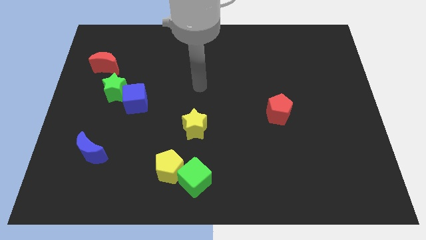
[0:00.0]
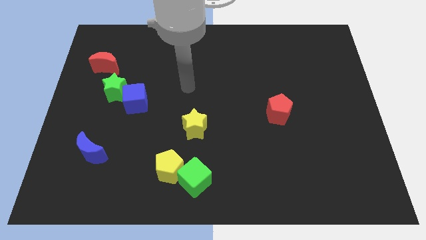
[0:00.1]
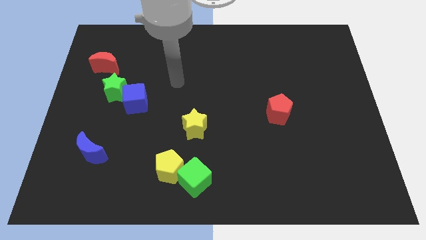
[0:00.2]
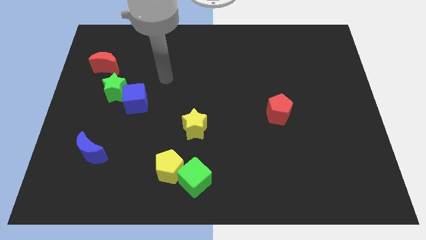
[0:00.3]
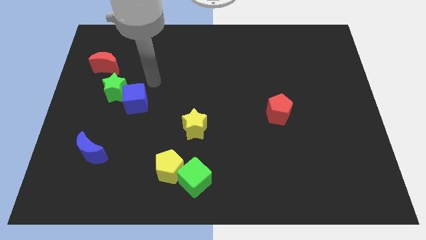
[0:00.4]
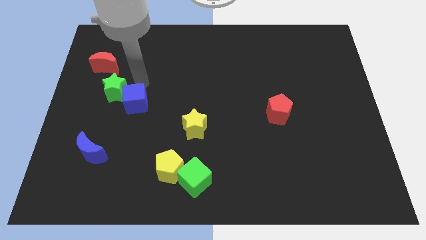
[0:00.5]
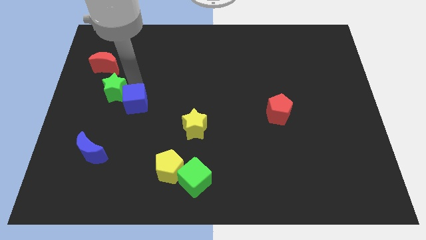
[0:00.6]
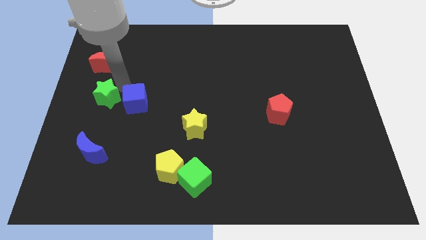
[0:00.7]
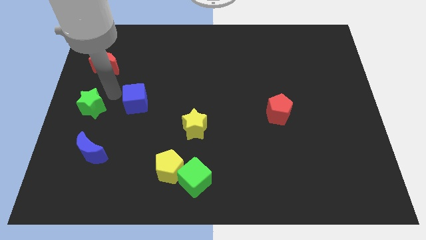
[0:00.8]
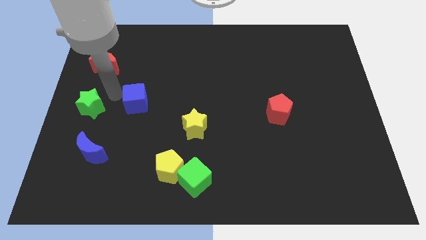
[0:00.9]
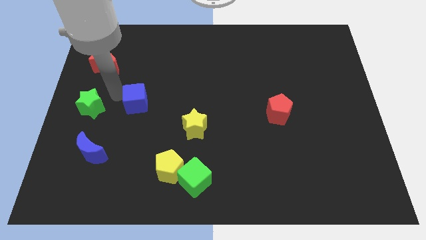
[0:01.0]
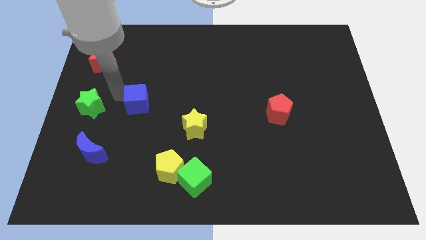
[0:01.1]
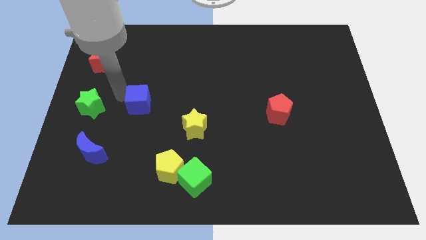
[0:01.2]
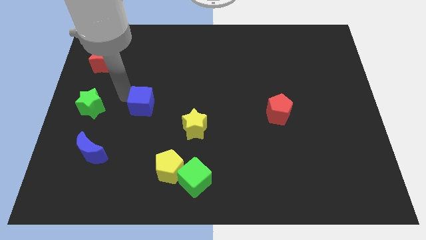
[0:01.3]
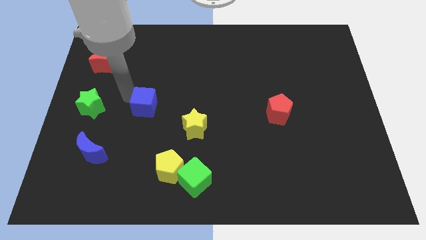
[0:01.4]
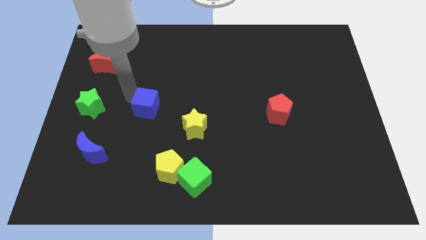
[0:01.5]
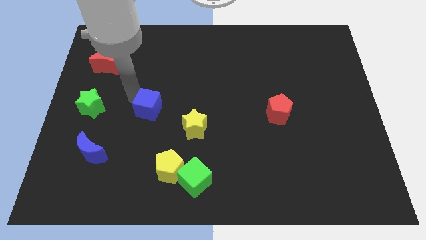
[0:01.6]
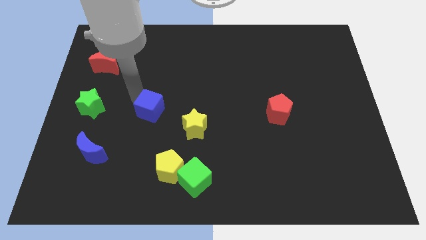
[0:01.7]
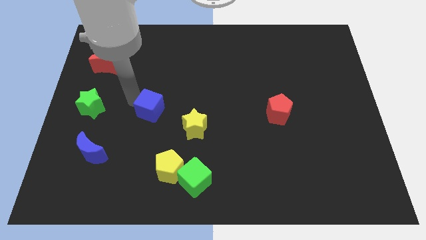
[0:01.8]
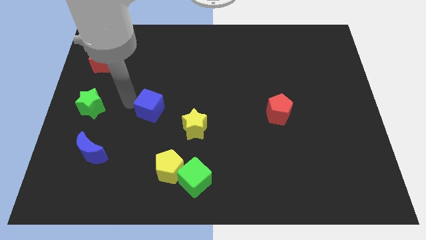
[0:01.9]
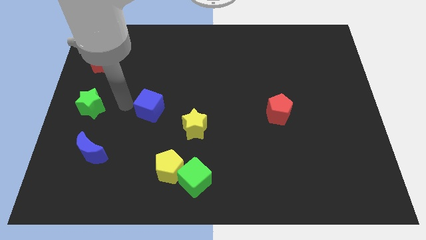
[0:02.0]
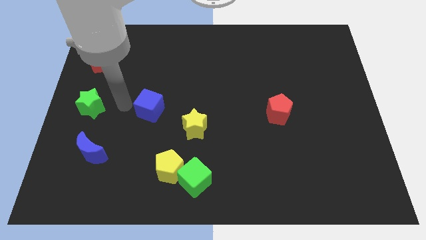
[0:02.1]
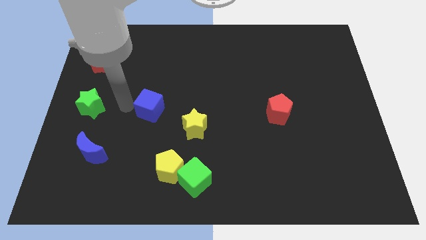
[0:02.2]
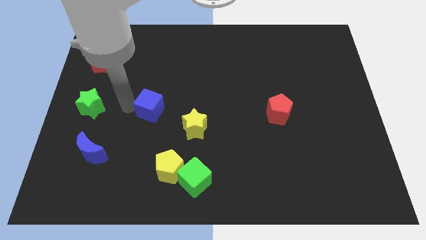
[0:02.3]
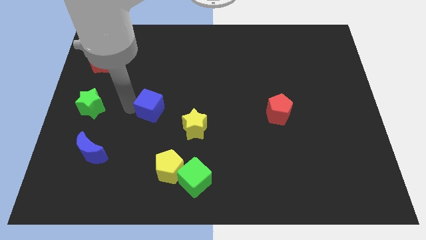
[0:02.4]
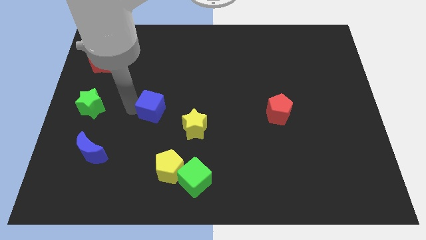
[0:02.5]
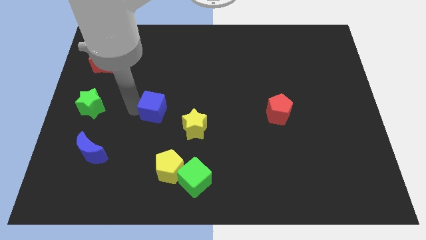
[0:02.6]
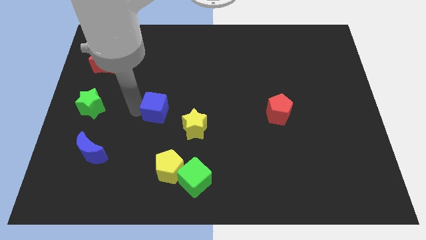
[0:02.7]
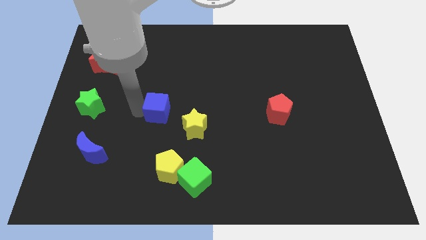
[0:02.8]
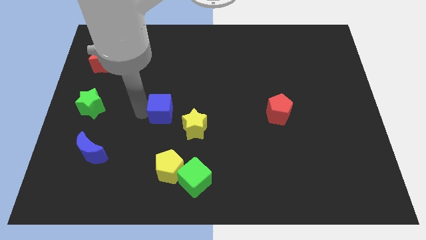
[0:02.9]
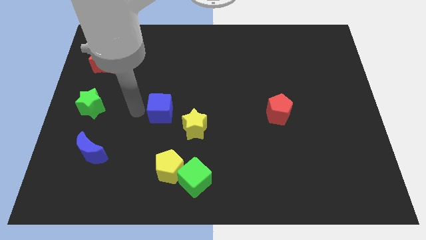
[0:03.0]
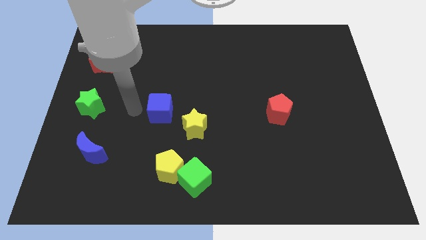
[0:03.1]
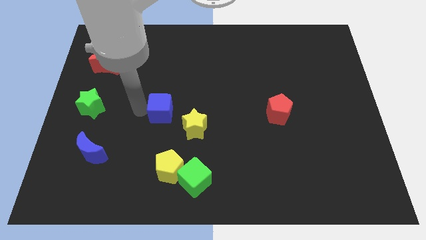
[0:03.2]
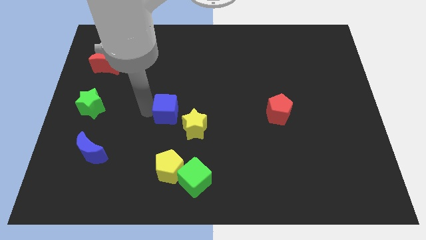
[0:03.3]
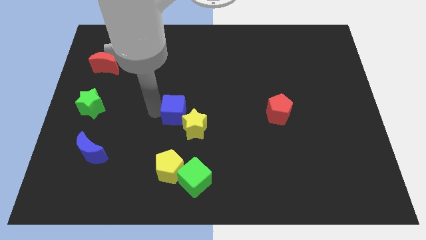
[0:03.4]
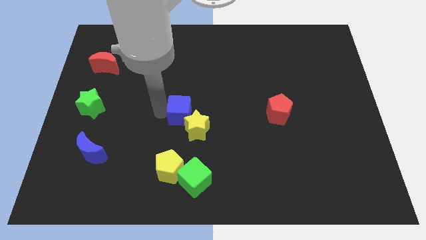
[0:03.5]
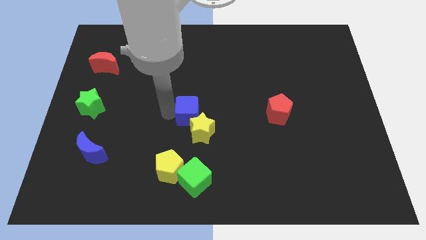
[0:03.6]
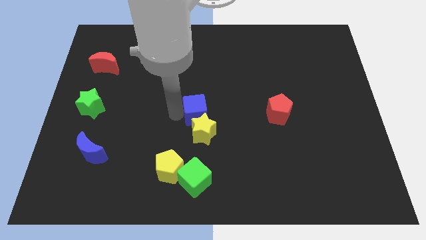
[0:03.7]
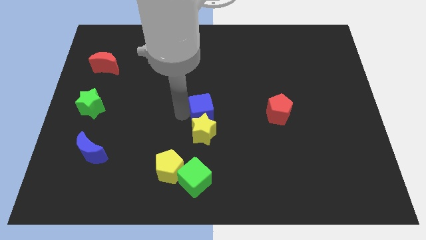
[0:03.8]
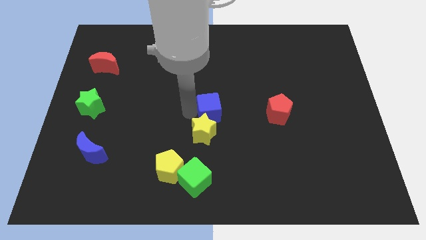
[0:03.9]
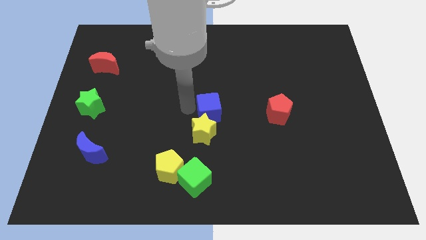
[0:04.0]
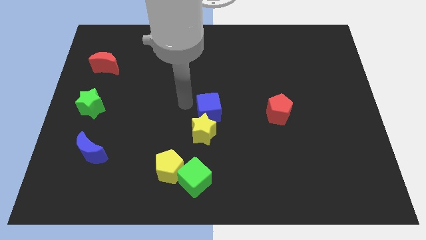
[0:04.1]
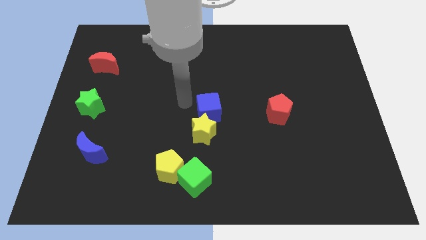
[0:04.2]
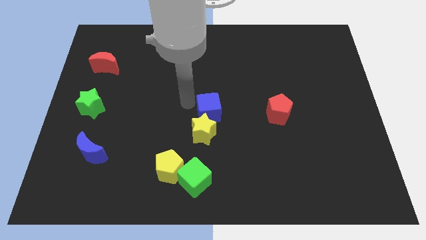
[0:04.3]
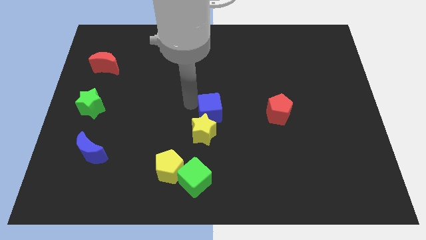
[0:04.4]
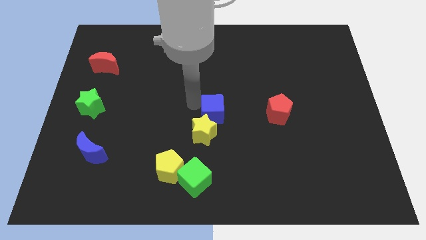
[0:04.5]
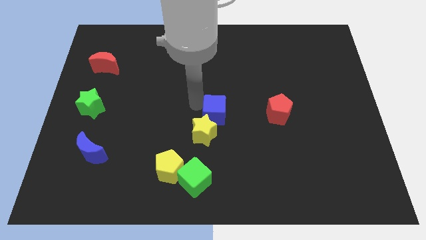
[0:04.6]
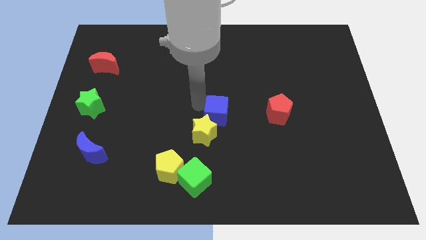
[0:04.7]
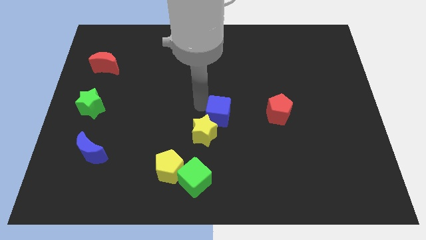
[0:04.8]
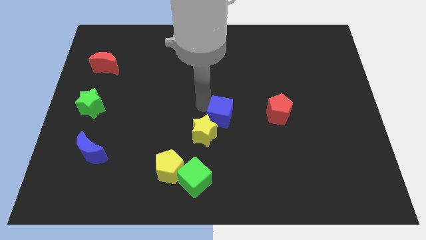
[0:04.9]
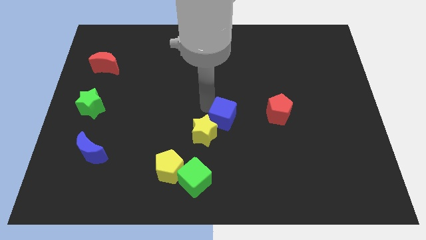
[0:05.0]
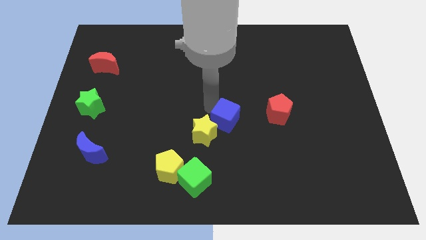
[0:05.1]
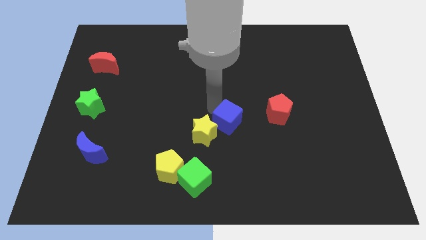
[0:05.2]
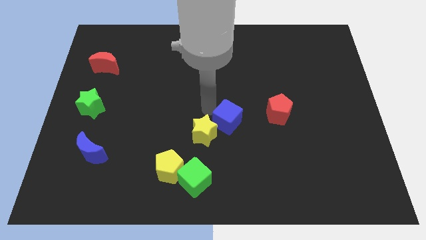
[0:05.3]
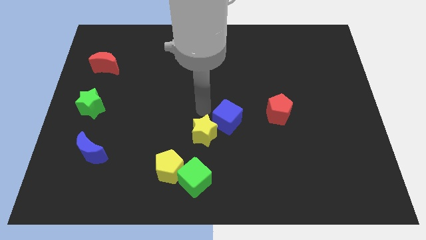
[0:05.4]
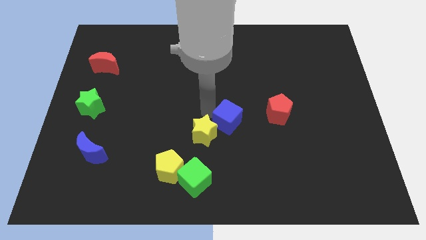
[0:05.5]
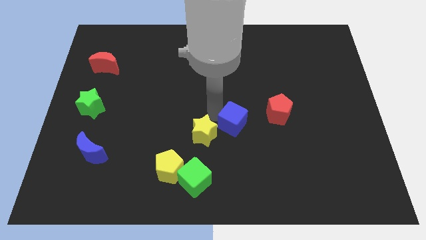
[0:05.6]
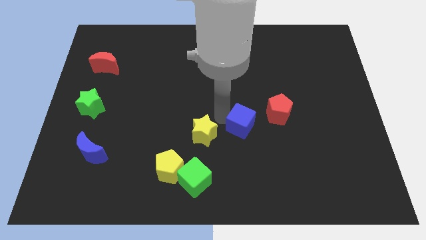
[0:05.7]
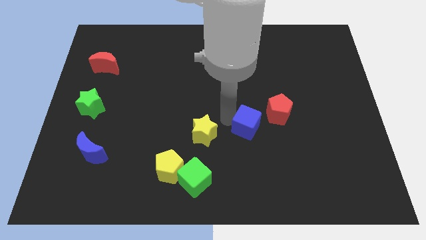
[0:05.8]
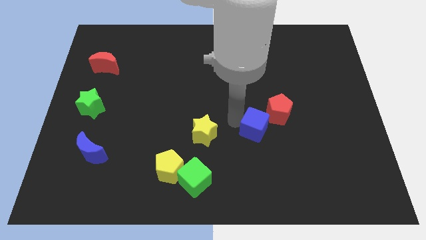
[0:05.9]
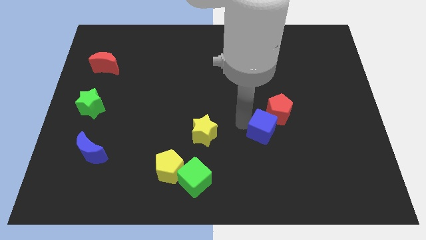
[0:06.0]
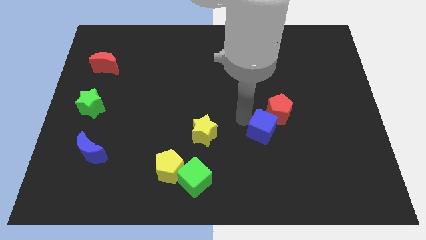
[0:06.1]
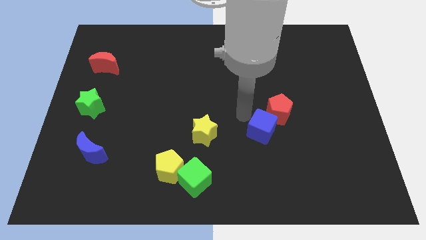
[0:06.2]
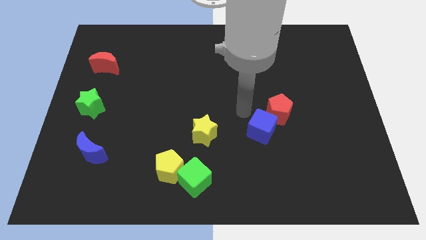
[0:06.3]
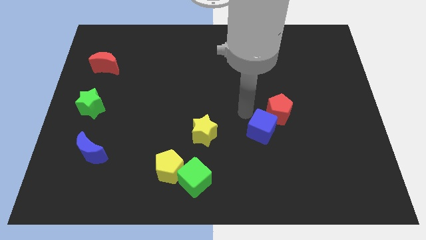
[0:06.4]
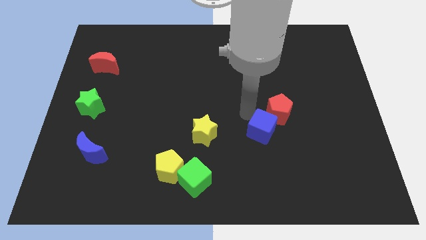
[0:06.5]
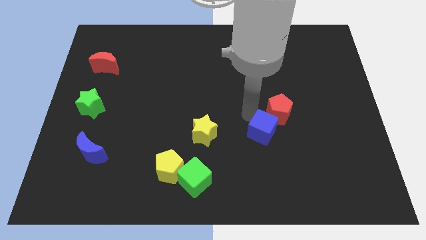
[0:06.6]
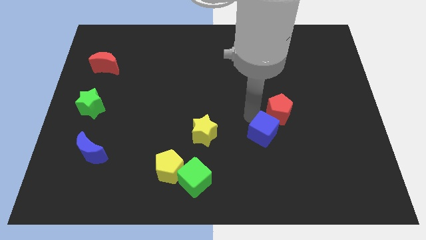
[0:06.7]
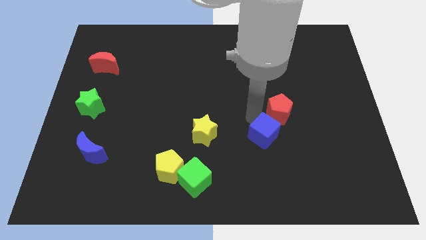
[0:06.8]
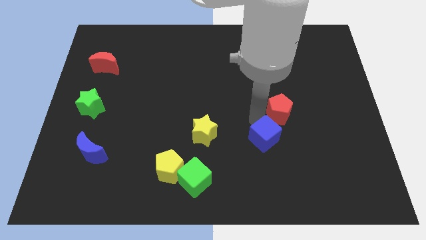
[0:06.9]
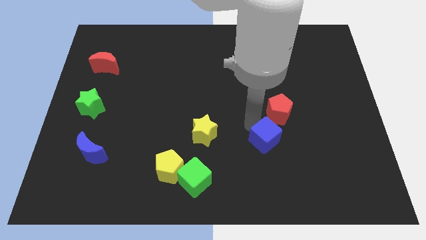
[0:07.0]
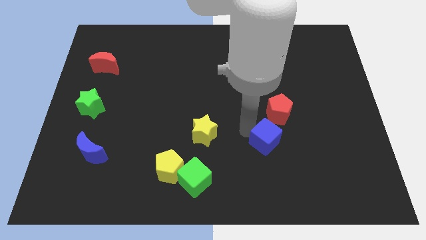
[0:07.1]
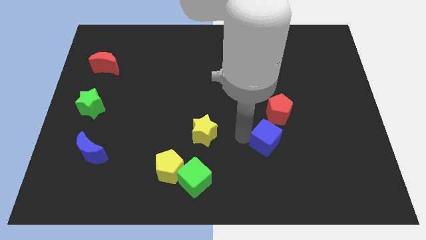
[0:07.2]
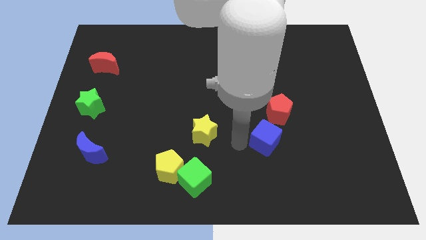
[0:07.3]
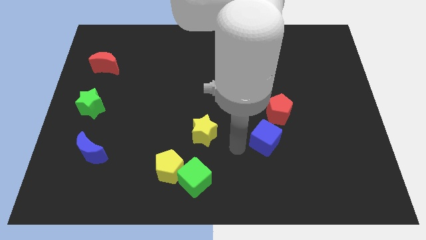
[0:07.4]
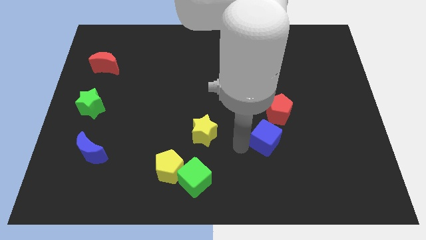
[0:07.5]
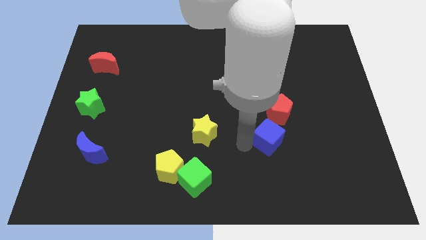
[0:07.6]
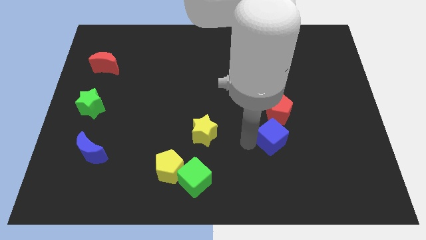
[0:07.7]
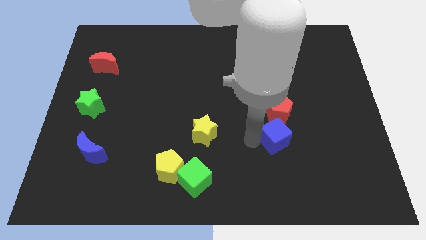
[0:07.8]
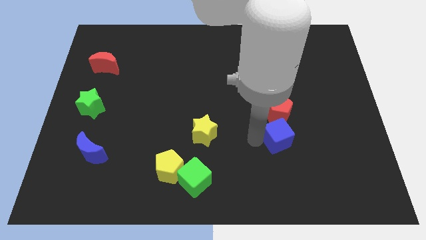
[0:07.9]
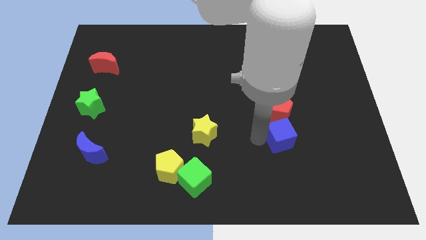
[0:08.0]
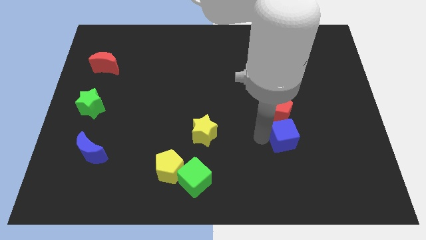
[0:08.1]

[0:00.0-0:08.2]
move the blue cube to the bottom right of the red pentagon
